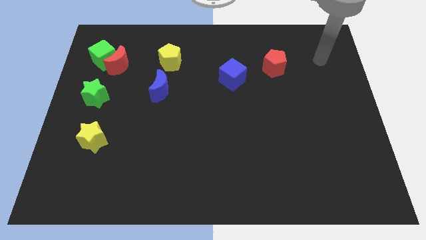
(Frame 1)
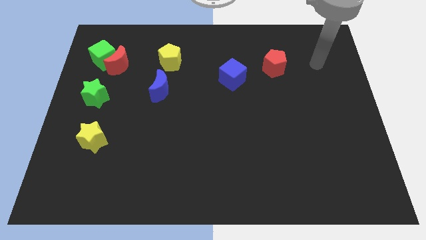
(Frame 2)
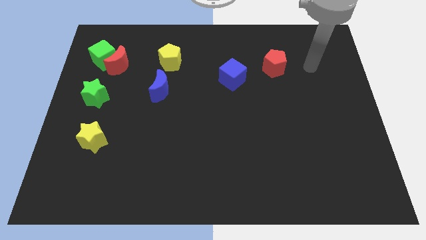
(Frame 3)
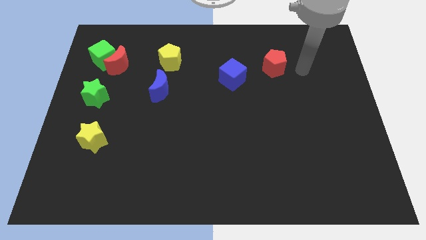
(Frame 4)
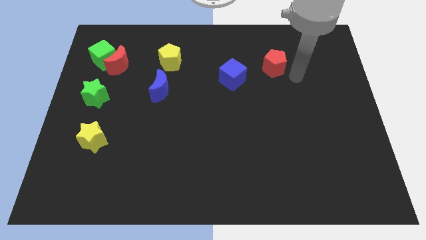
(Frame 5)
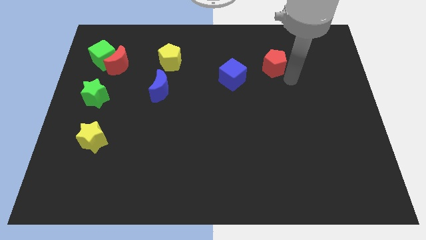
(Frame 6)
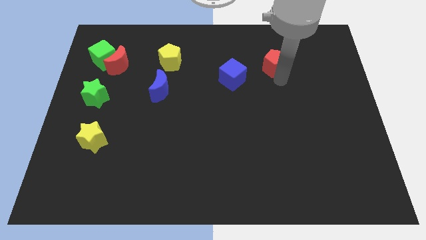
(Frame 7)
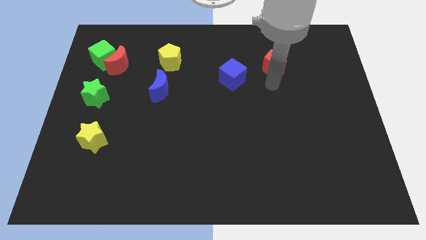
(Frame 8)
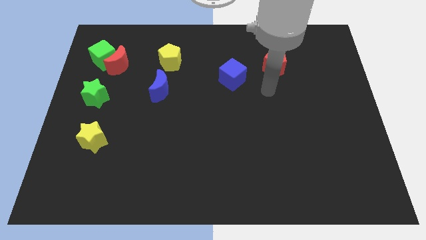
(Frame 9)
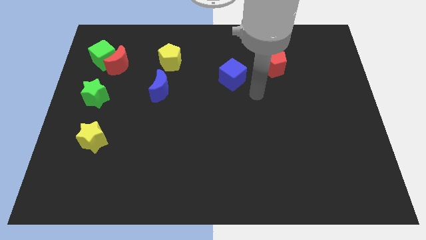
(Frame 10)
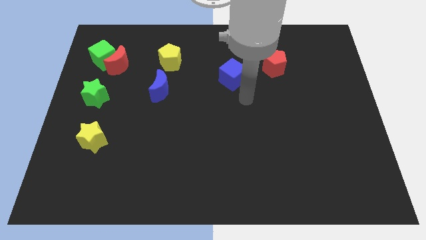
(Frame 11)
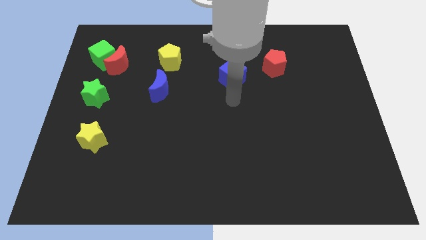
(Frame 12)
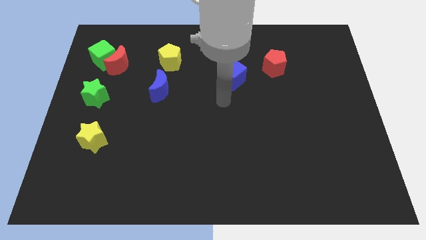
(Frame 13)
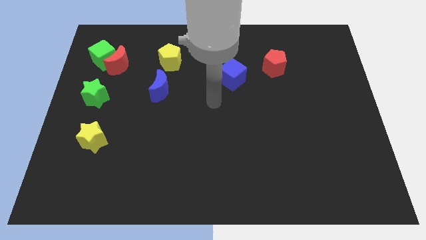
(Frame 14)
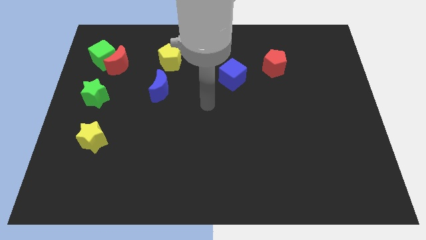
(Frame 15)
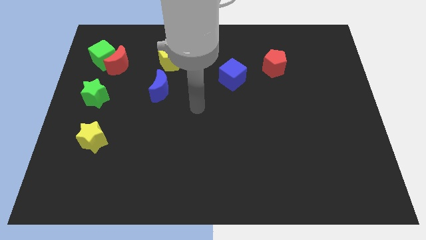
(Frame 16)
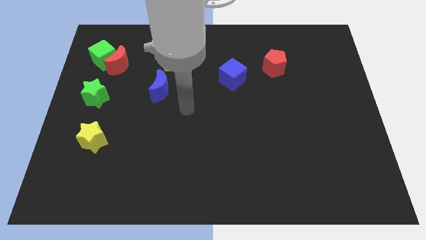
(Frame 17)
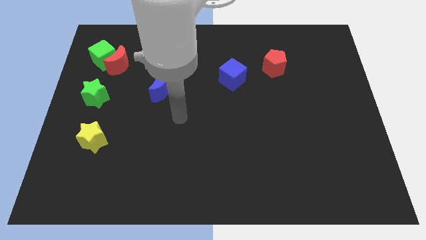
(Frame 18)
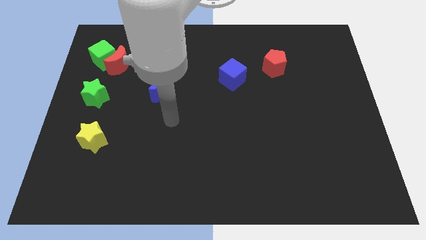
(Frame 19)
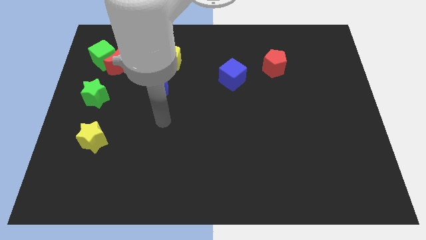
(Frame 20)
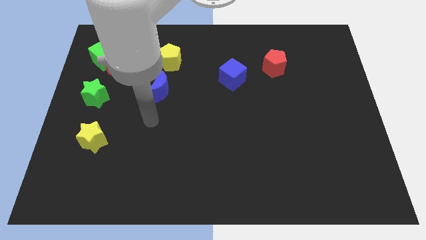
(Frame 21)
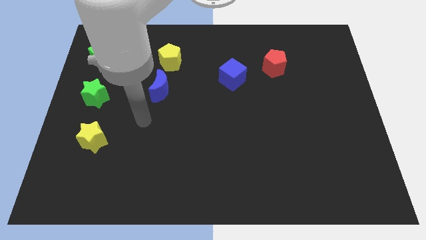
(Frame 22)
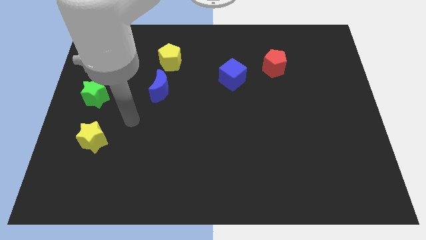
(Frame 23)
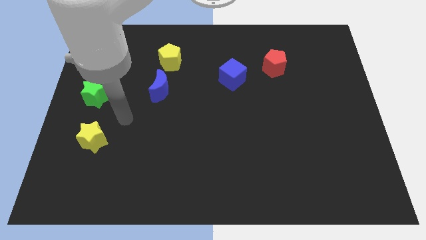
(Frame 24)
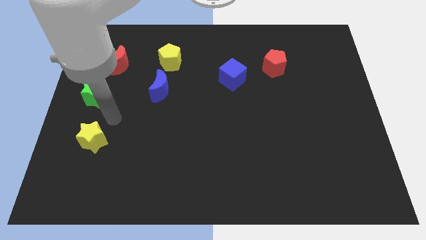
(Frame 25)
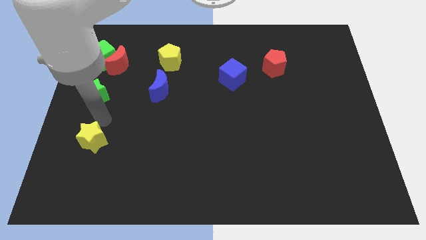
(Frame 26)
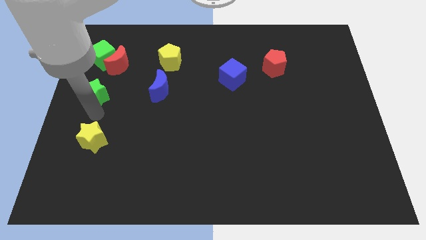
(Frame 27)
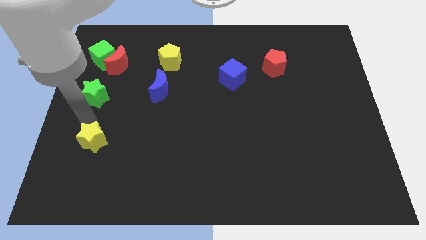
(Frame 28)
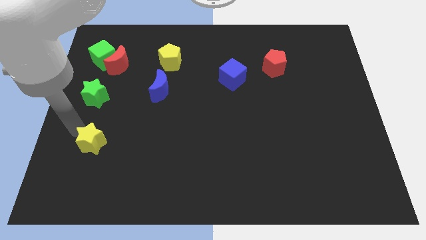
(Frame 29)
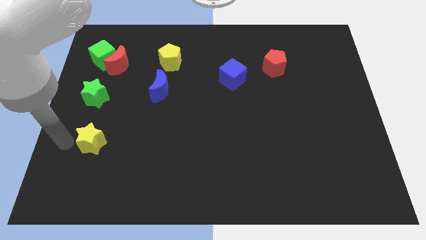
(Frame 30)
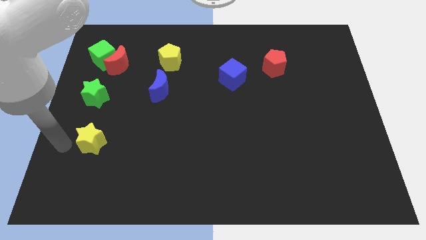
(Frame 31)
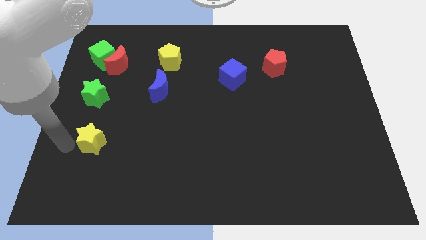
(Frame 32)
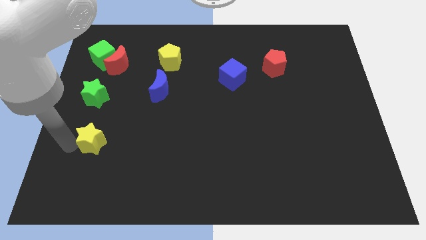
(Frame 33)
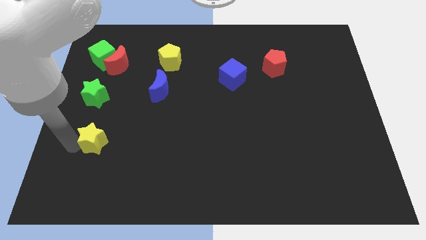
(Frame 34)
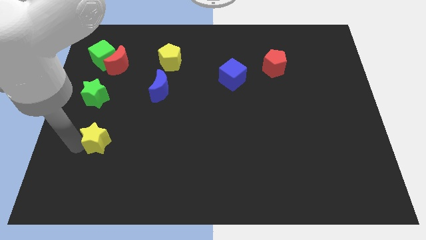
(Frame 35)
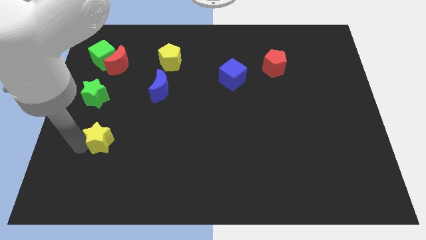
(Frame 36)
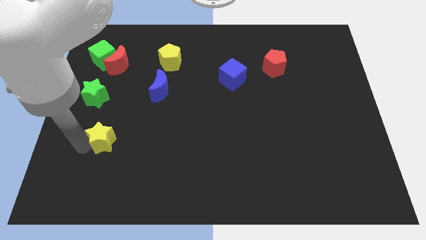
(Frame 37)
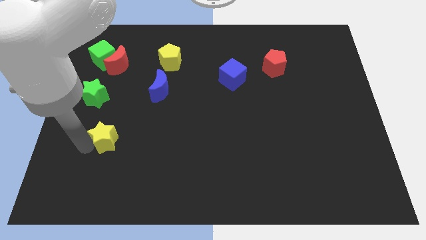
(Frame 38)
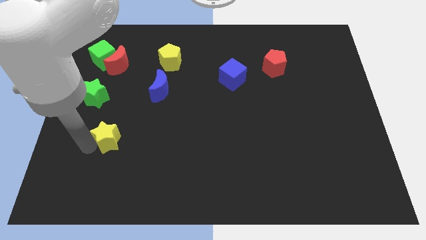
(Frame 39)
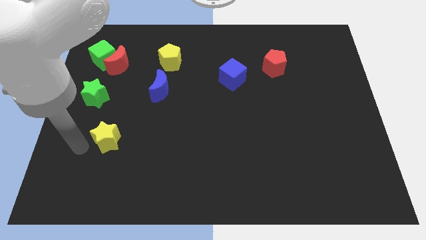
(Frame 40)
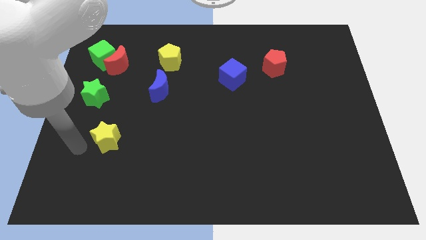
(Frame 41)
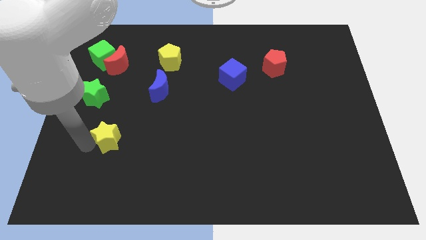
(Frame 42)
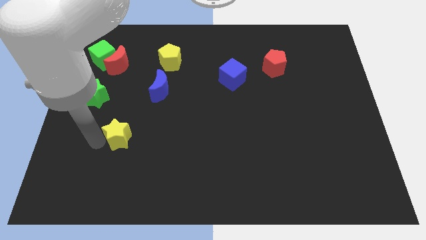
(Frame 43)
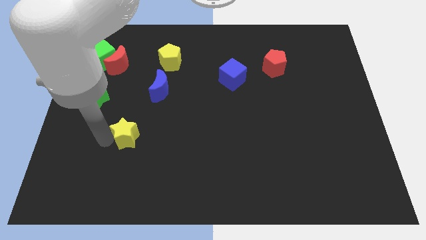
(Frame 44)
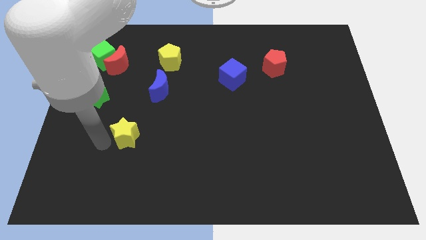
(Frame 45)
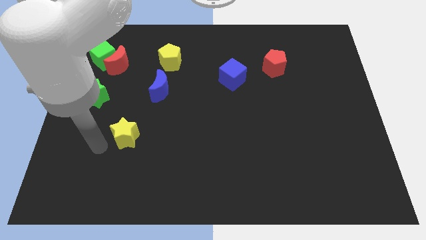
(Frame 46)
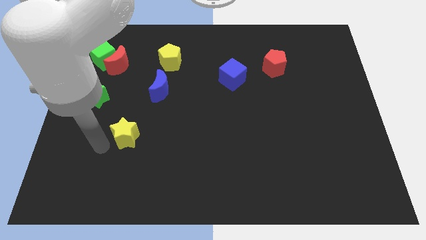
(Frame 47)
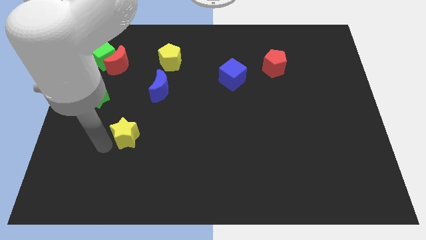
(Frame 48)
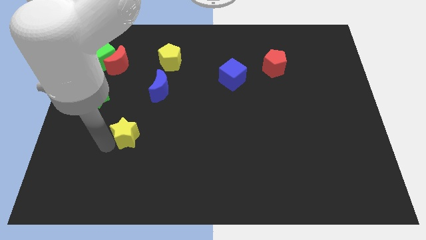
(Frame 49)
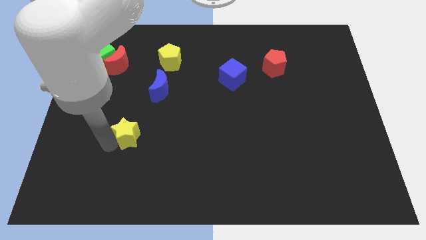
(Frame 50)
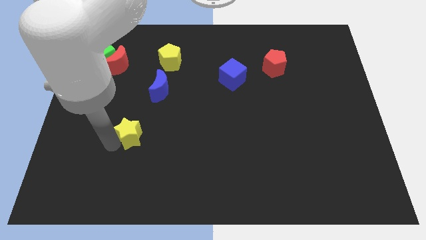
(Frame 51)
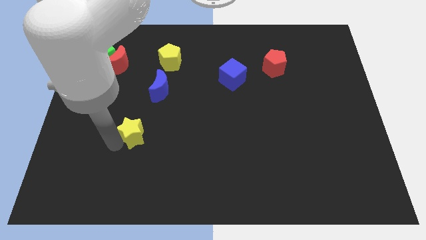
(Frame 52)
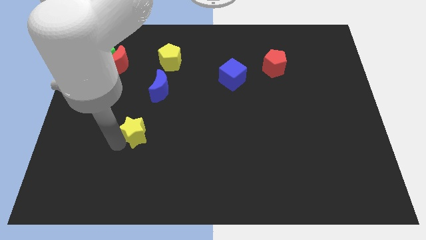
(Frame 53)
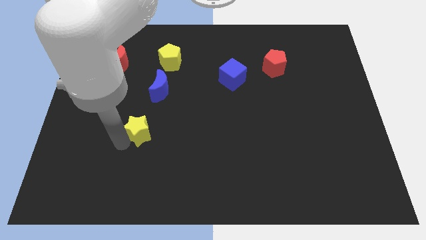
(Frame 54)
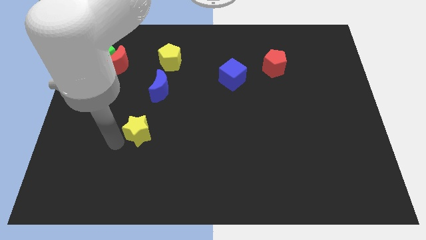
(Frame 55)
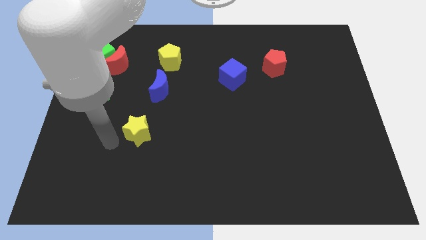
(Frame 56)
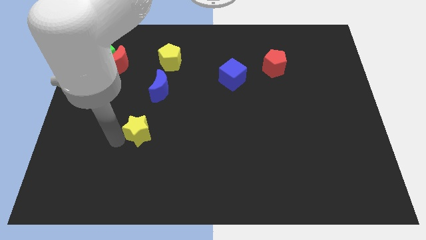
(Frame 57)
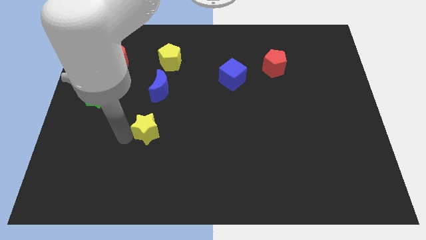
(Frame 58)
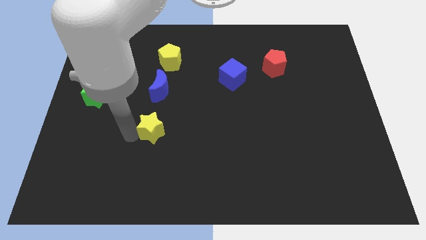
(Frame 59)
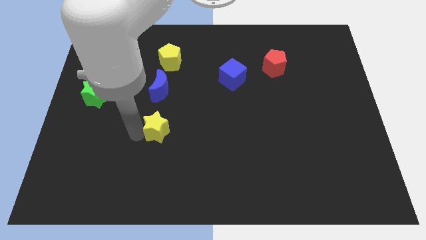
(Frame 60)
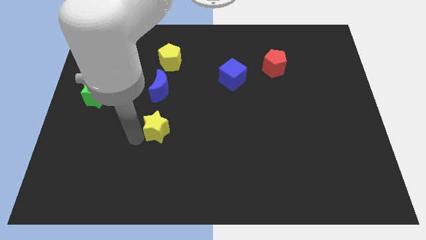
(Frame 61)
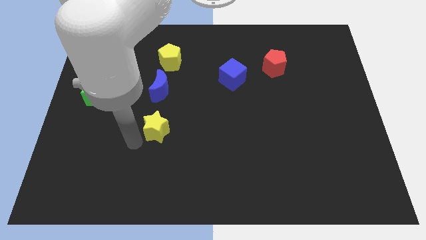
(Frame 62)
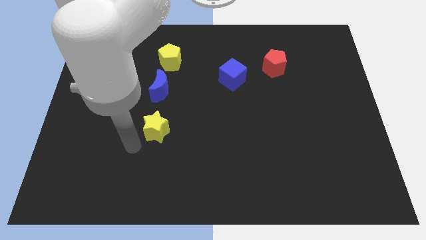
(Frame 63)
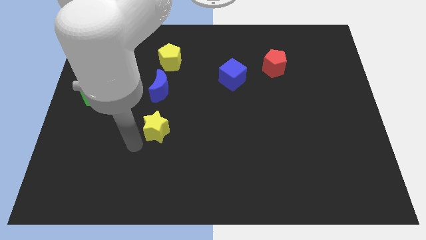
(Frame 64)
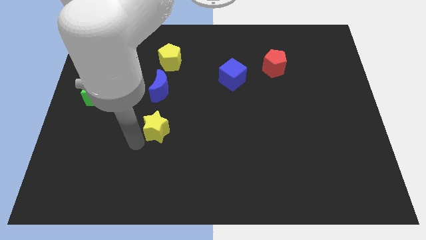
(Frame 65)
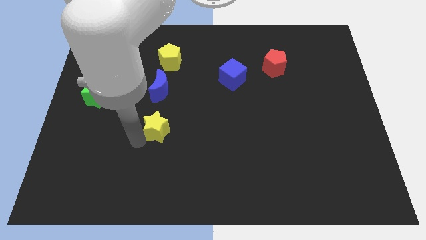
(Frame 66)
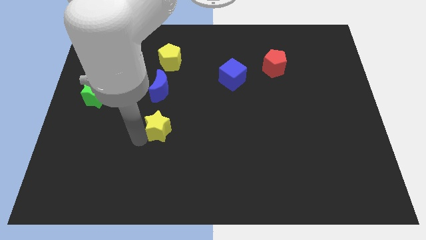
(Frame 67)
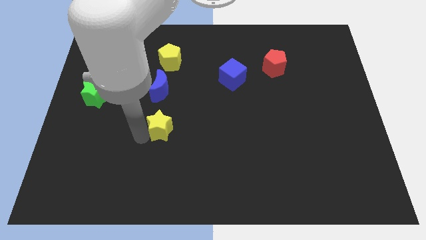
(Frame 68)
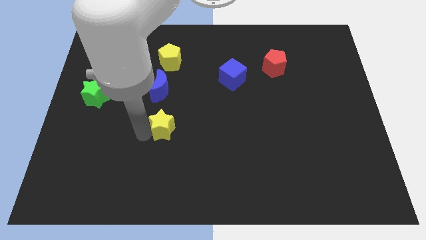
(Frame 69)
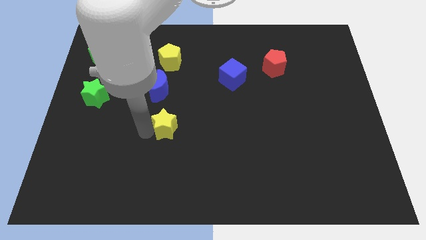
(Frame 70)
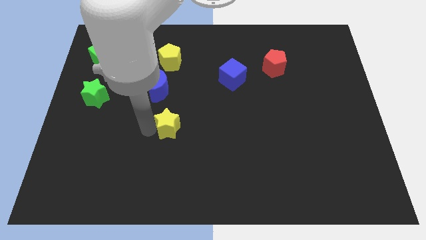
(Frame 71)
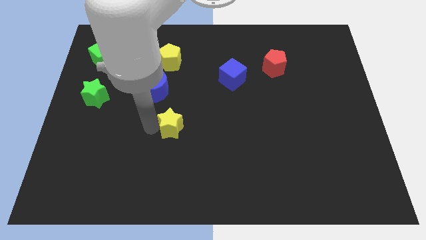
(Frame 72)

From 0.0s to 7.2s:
slide the yellow star to the center of the board
